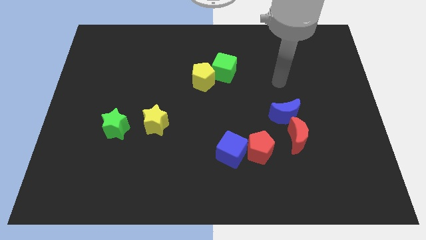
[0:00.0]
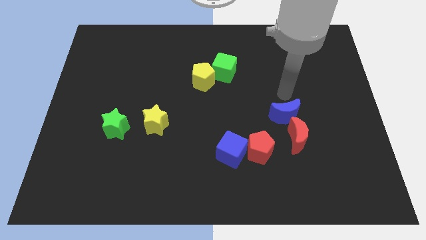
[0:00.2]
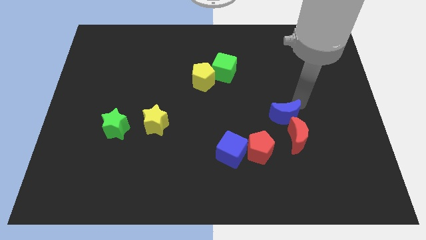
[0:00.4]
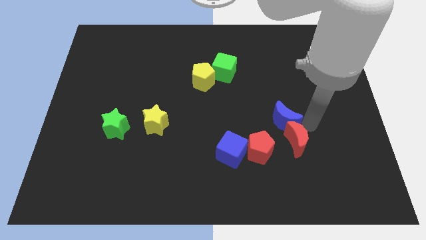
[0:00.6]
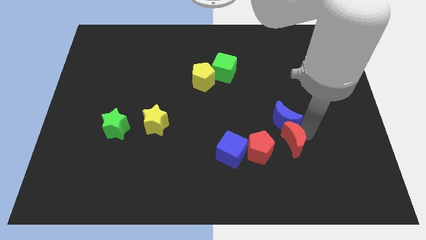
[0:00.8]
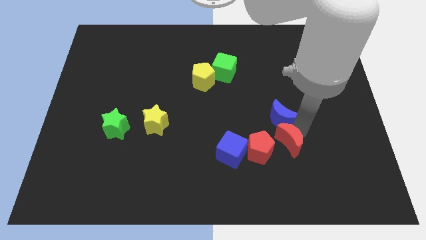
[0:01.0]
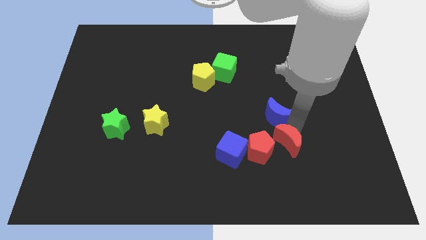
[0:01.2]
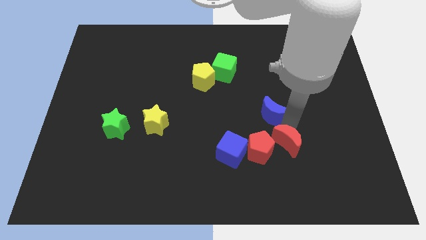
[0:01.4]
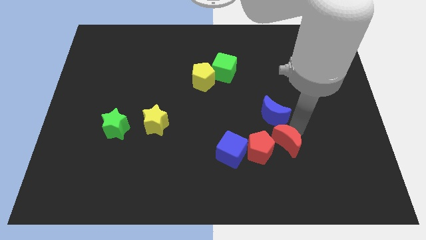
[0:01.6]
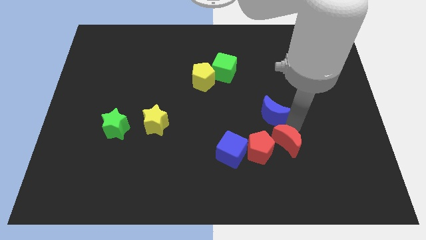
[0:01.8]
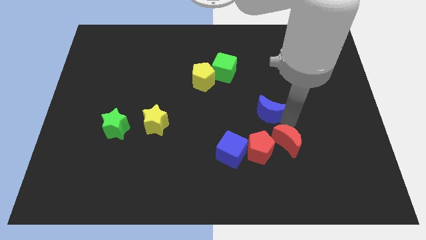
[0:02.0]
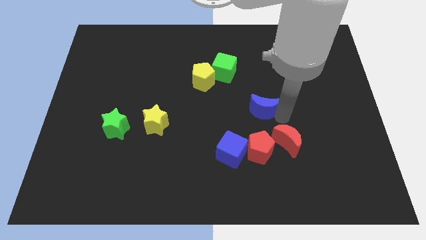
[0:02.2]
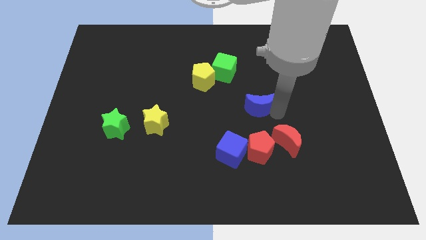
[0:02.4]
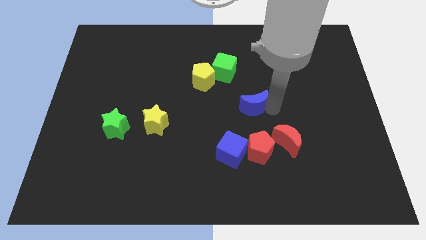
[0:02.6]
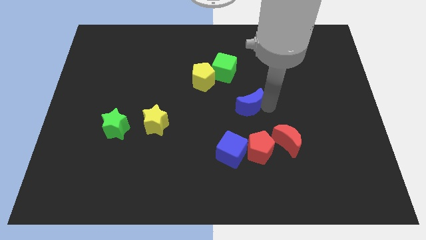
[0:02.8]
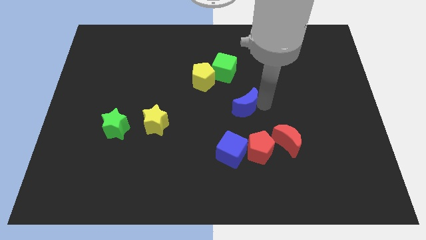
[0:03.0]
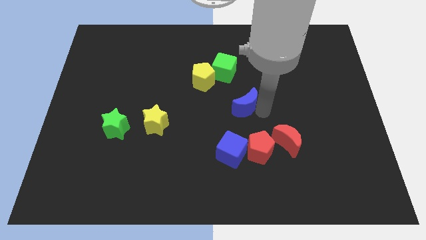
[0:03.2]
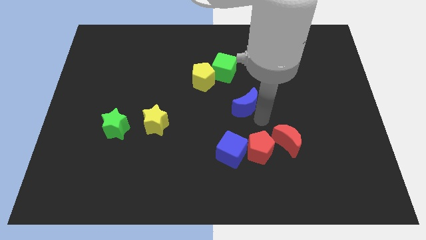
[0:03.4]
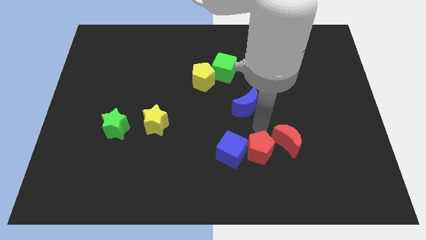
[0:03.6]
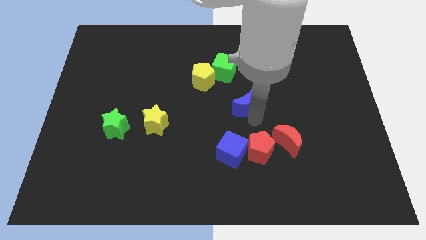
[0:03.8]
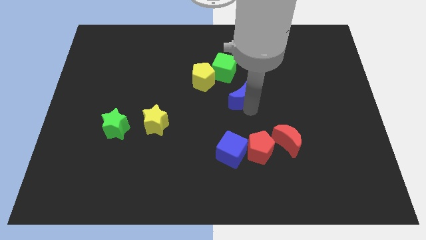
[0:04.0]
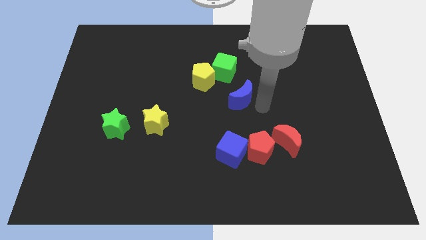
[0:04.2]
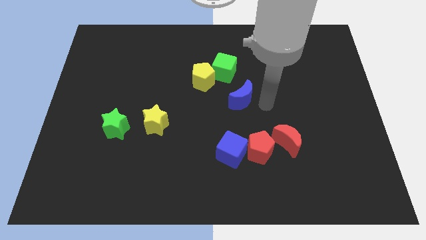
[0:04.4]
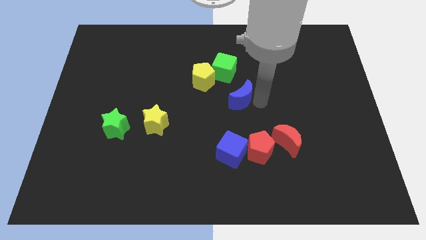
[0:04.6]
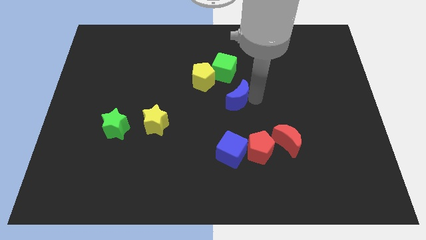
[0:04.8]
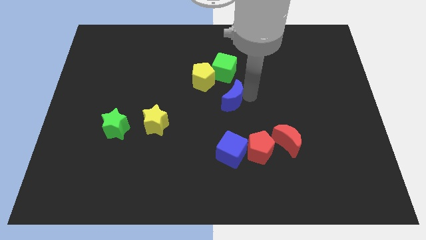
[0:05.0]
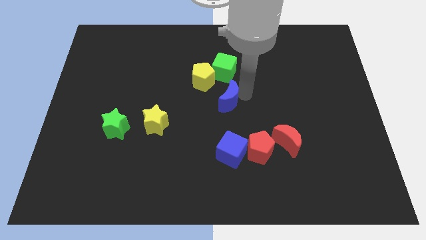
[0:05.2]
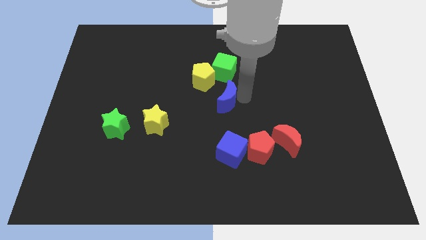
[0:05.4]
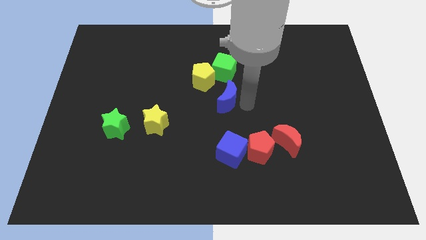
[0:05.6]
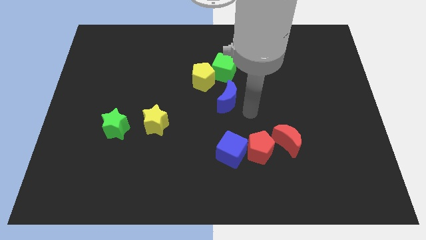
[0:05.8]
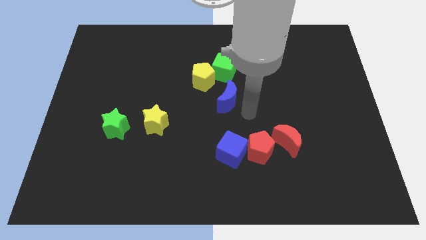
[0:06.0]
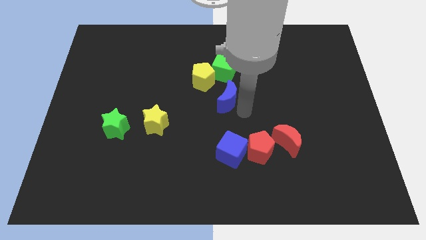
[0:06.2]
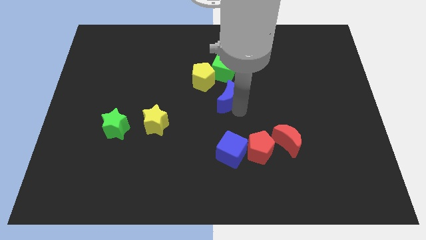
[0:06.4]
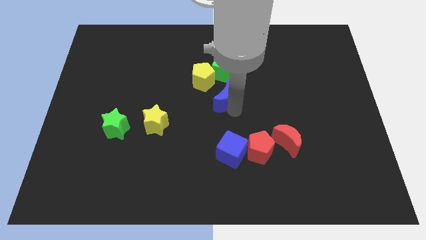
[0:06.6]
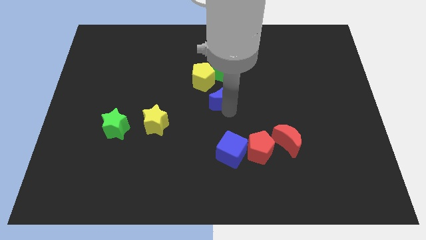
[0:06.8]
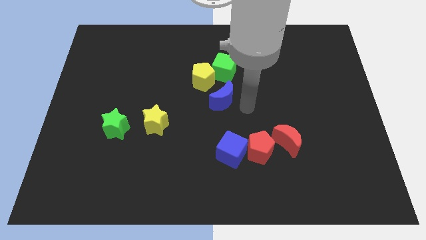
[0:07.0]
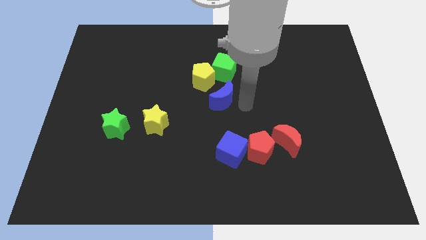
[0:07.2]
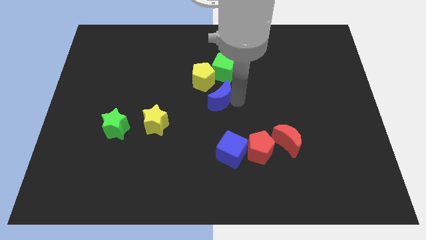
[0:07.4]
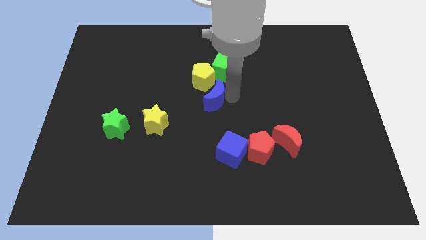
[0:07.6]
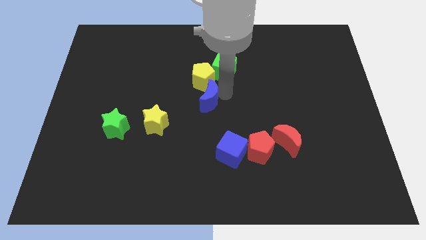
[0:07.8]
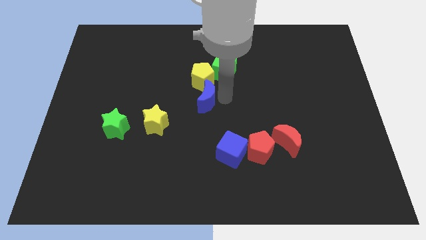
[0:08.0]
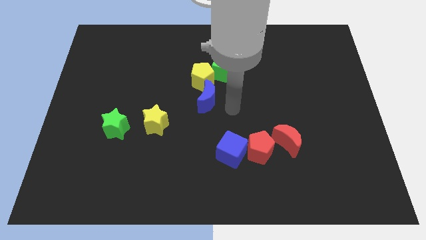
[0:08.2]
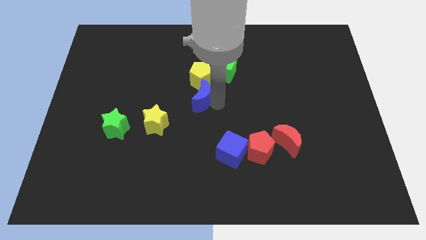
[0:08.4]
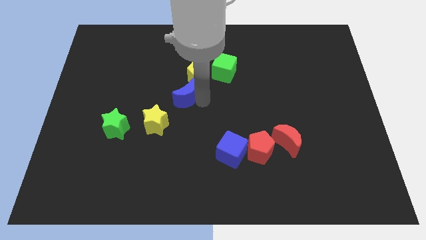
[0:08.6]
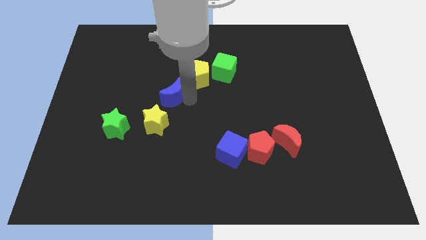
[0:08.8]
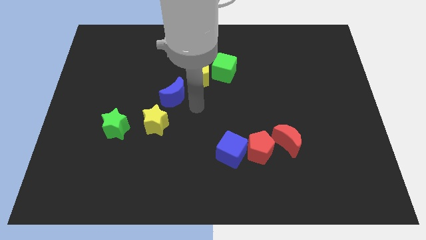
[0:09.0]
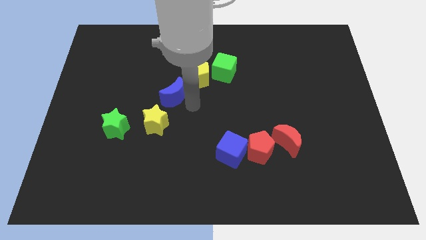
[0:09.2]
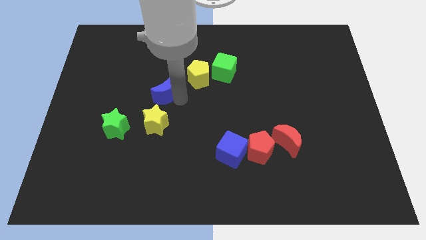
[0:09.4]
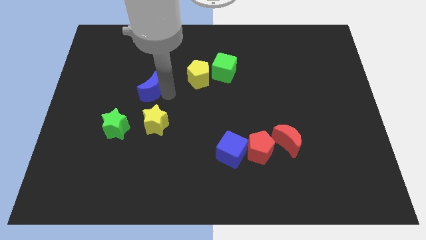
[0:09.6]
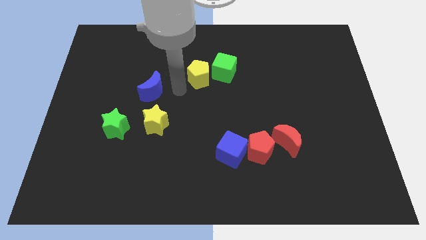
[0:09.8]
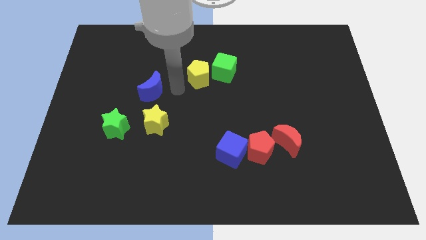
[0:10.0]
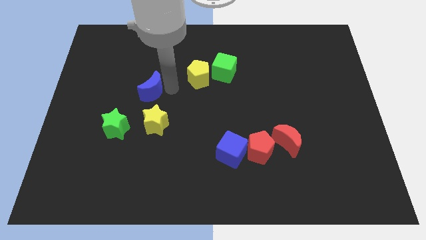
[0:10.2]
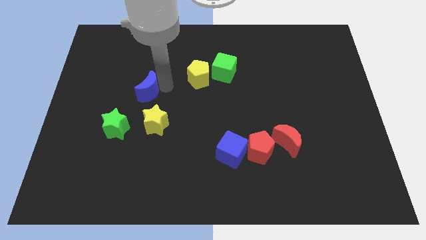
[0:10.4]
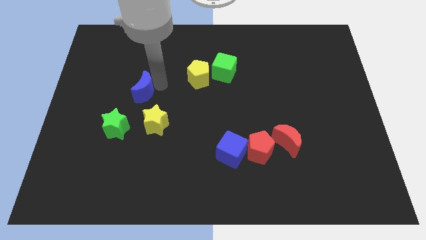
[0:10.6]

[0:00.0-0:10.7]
move the blue moon to the top of the green star

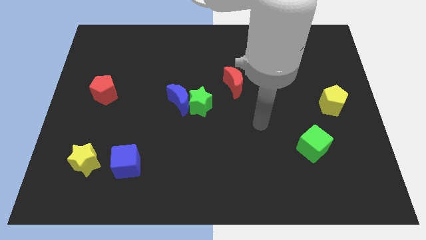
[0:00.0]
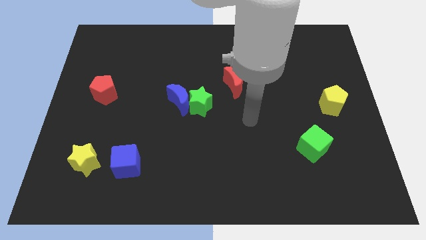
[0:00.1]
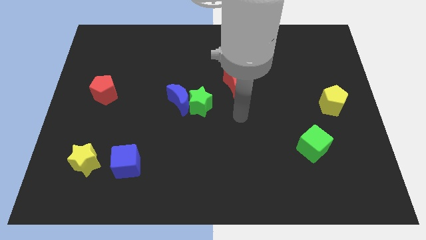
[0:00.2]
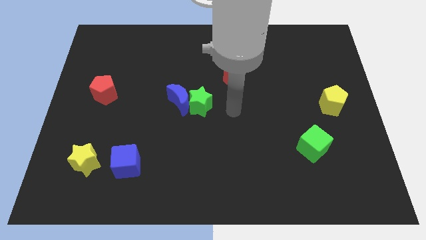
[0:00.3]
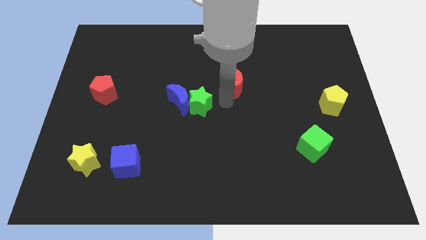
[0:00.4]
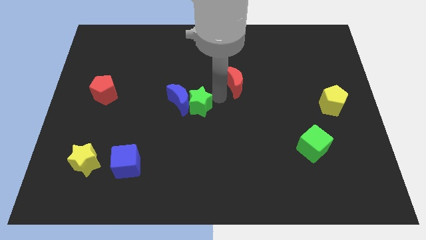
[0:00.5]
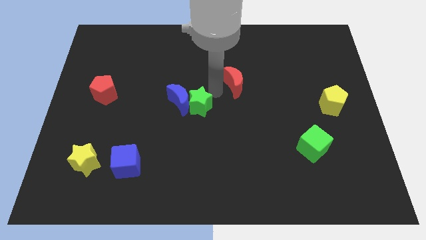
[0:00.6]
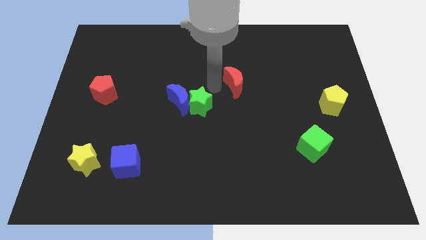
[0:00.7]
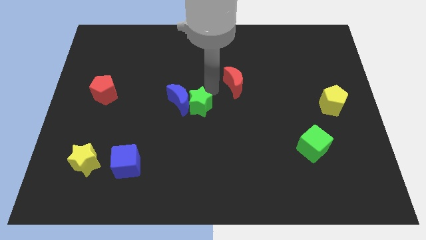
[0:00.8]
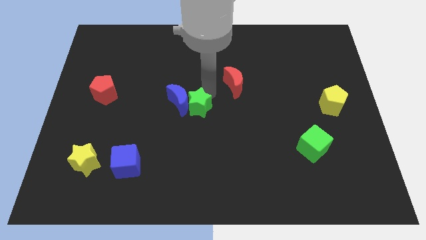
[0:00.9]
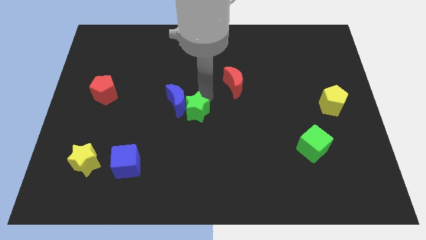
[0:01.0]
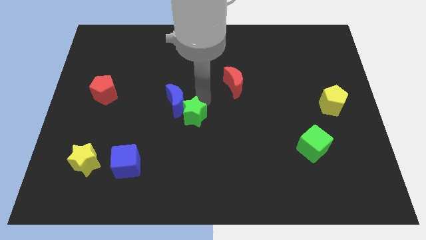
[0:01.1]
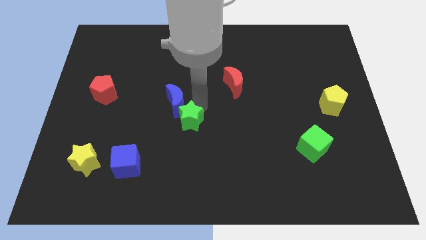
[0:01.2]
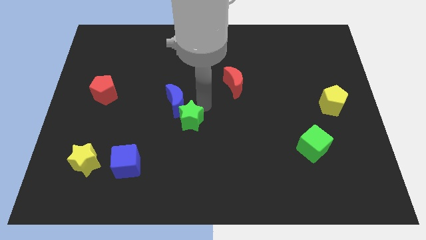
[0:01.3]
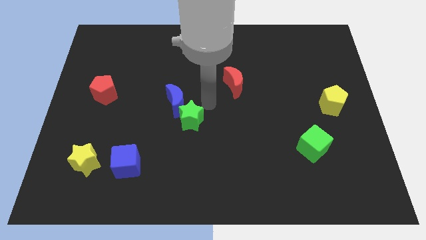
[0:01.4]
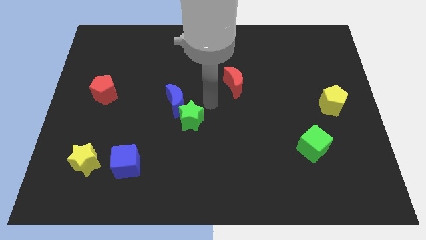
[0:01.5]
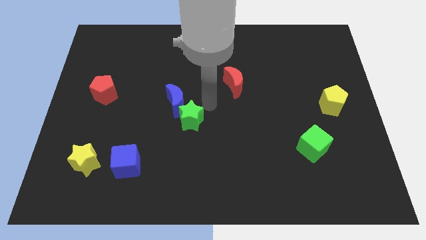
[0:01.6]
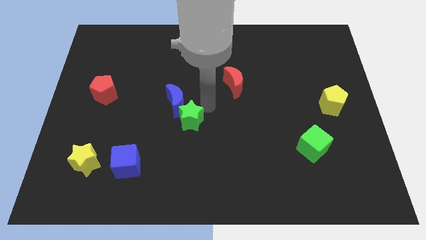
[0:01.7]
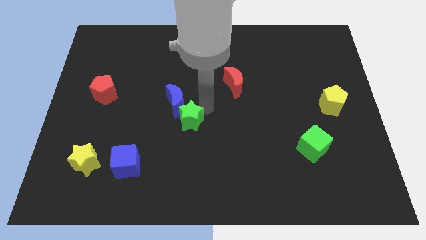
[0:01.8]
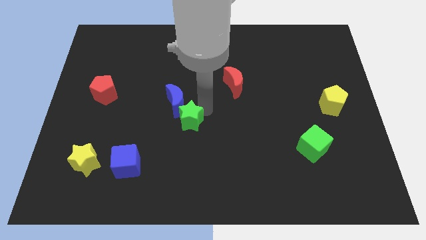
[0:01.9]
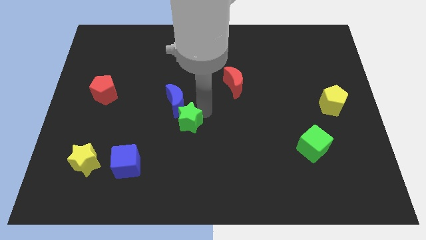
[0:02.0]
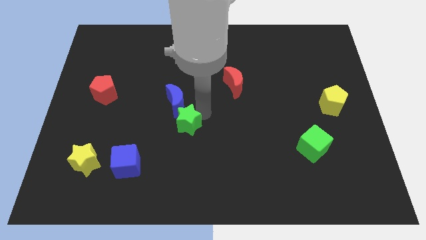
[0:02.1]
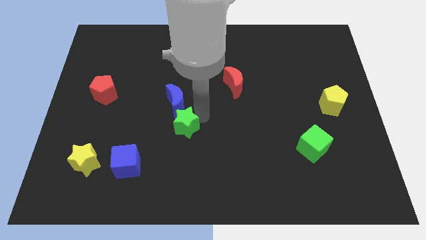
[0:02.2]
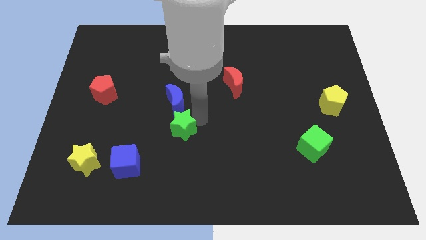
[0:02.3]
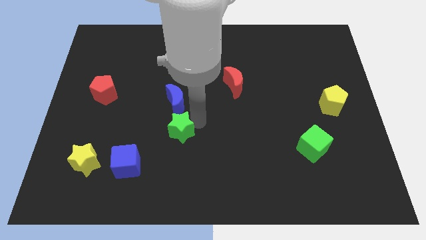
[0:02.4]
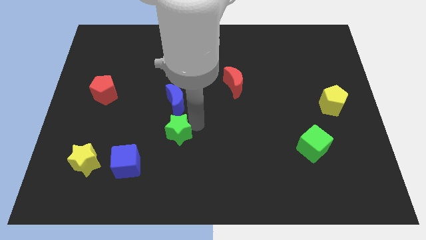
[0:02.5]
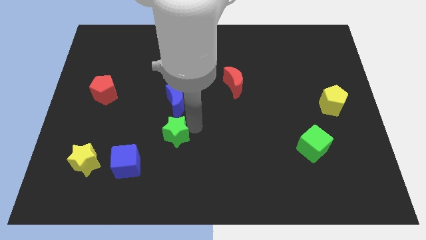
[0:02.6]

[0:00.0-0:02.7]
push the green star to the top right of the blue cube
